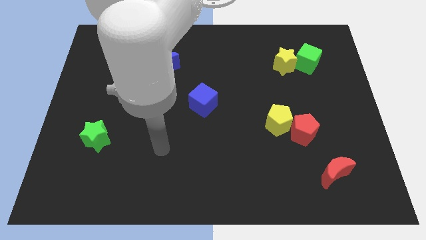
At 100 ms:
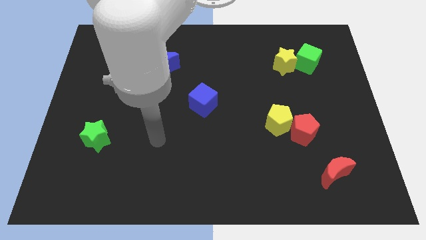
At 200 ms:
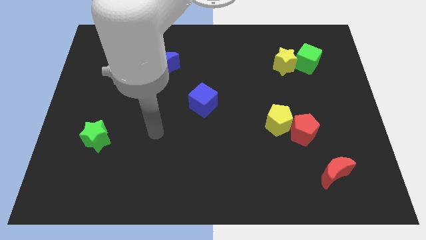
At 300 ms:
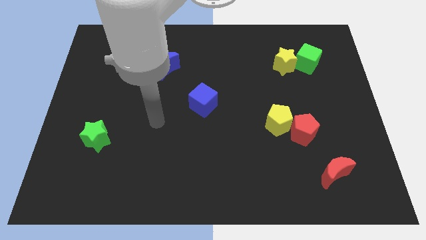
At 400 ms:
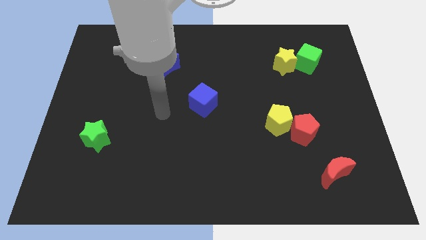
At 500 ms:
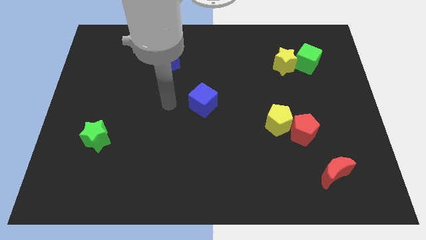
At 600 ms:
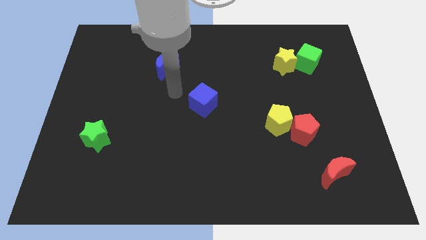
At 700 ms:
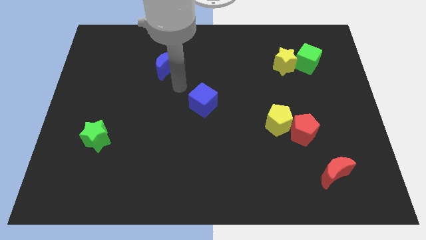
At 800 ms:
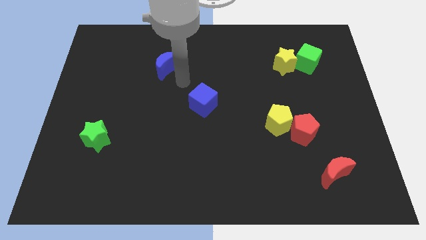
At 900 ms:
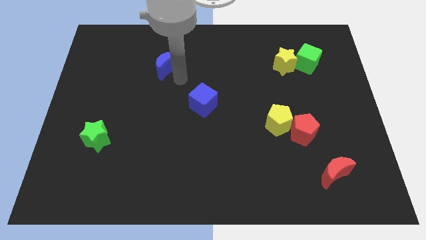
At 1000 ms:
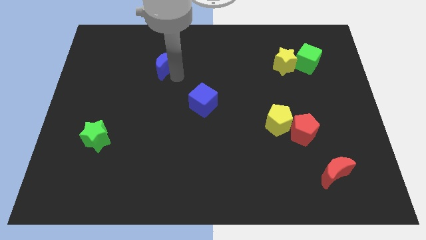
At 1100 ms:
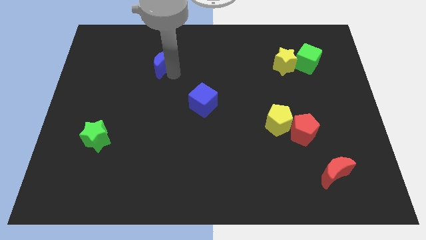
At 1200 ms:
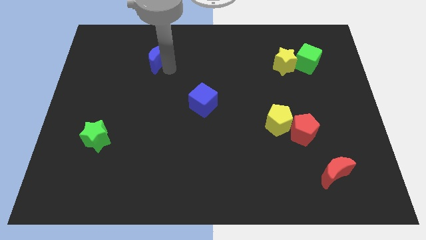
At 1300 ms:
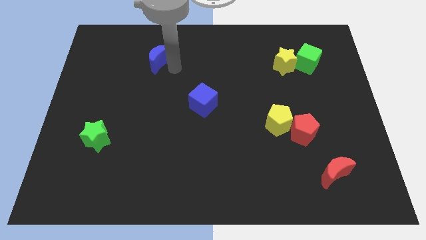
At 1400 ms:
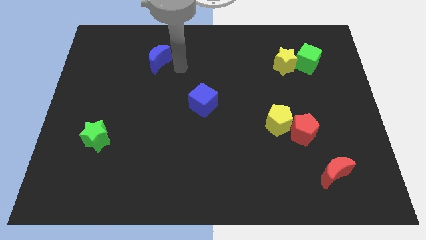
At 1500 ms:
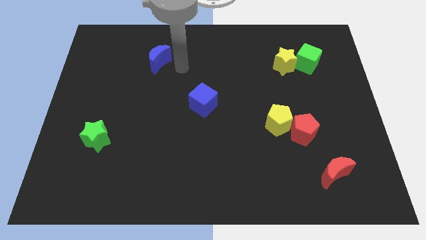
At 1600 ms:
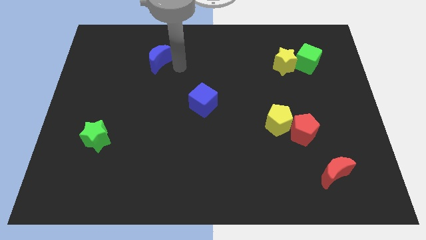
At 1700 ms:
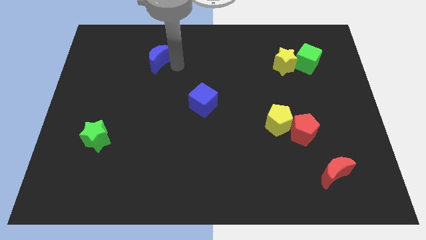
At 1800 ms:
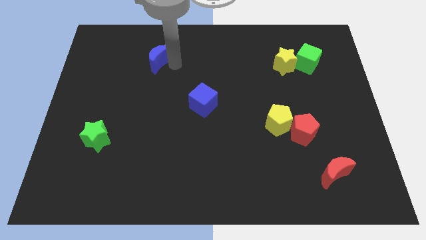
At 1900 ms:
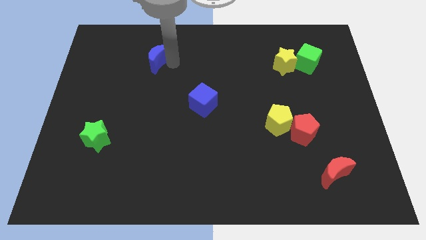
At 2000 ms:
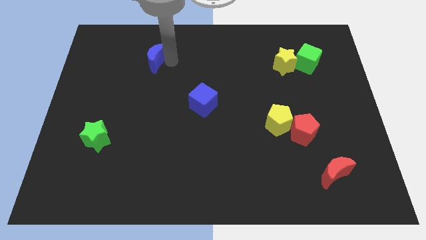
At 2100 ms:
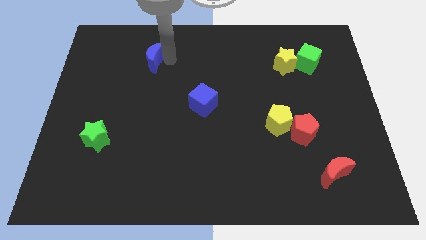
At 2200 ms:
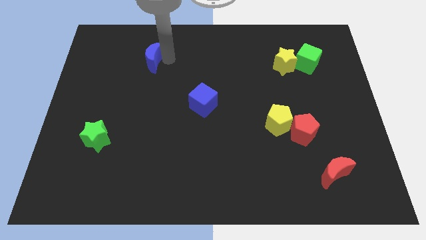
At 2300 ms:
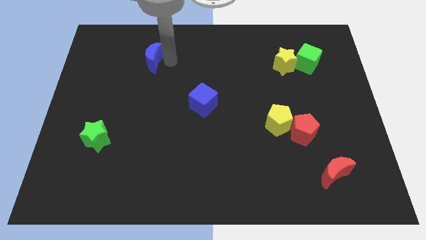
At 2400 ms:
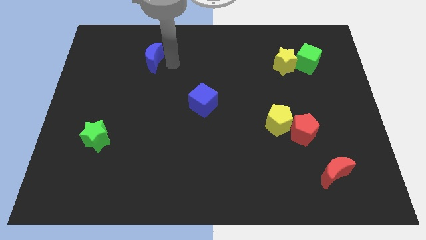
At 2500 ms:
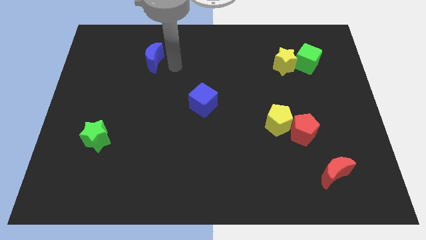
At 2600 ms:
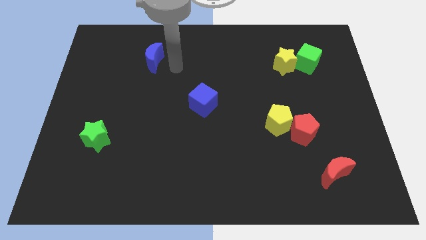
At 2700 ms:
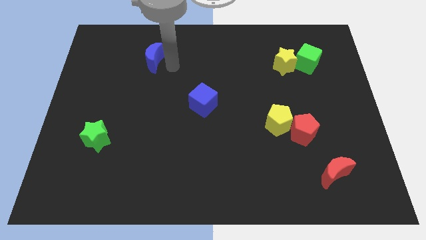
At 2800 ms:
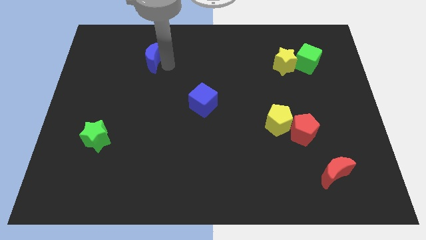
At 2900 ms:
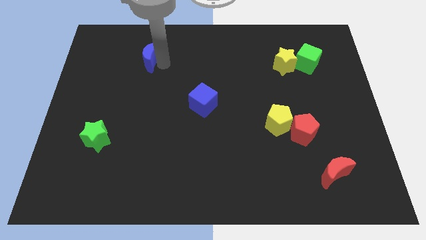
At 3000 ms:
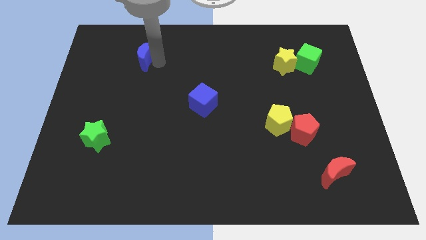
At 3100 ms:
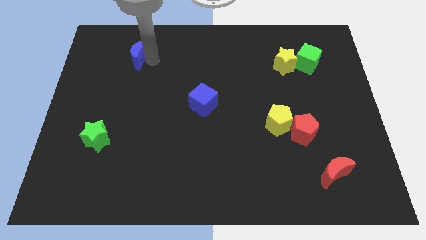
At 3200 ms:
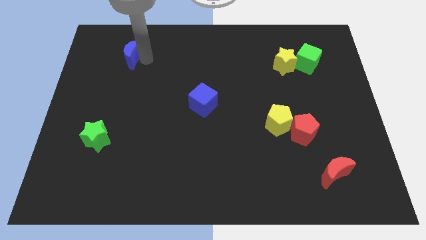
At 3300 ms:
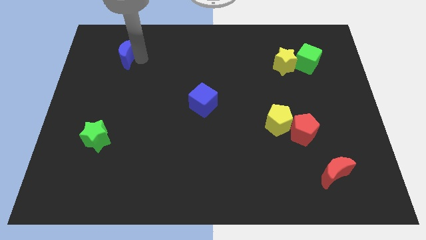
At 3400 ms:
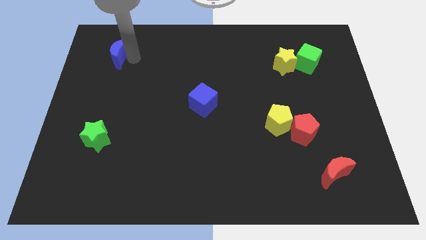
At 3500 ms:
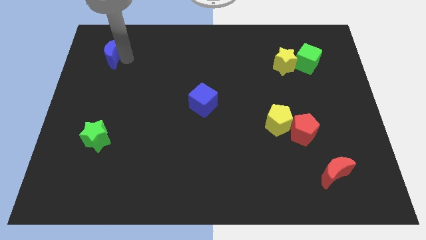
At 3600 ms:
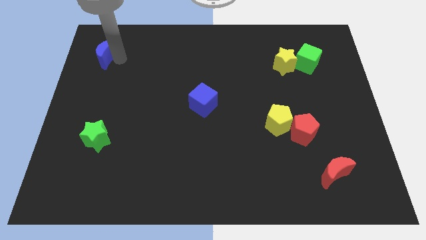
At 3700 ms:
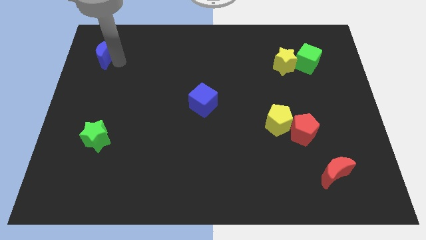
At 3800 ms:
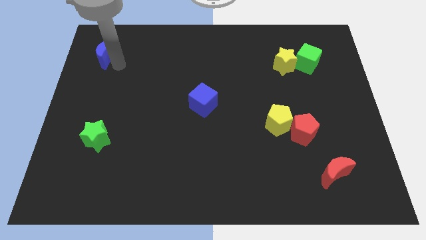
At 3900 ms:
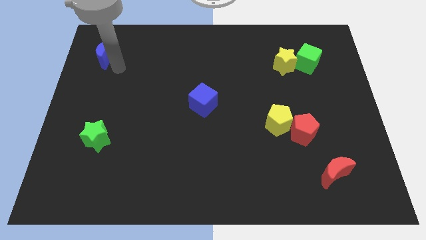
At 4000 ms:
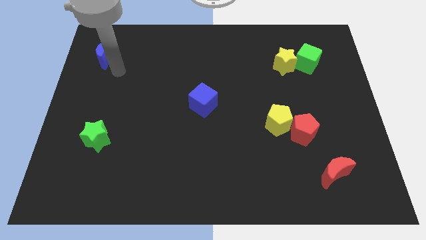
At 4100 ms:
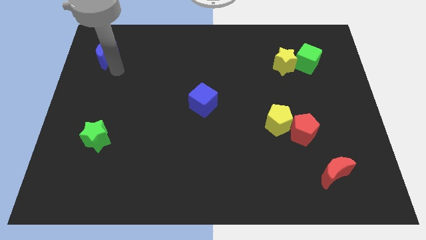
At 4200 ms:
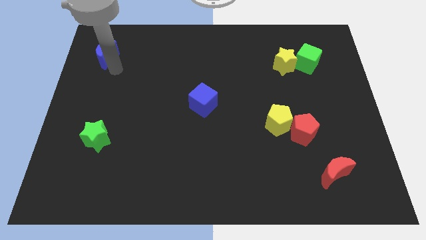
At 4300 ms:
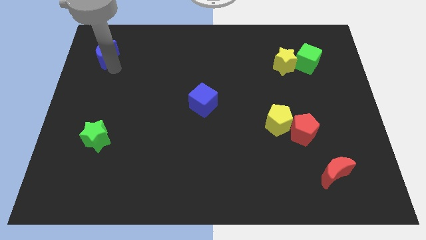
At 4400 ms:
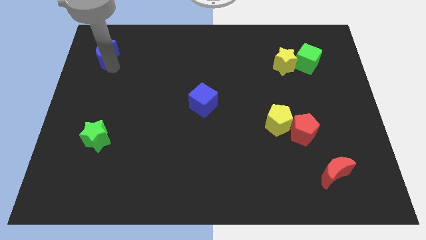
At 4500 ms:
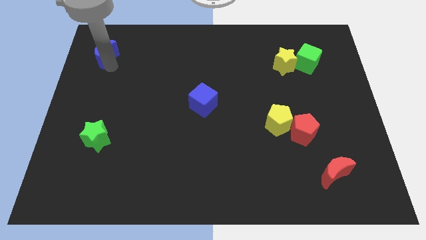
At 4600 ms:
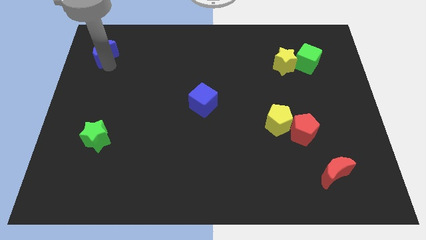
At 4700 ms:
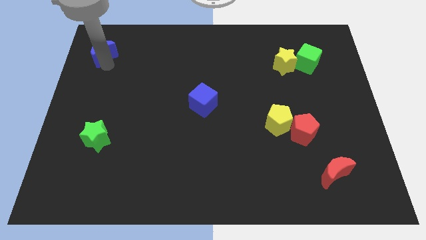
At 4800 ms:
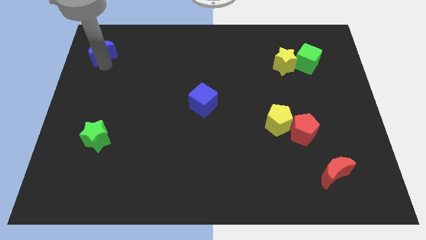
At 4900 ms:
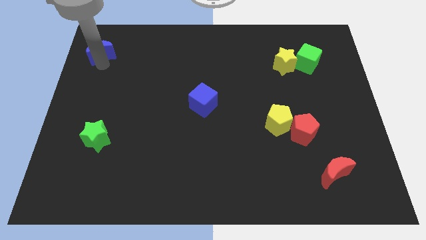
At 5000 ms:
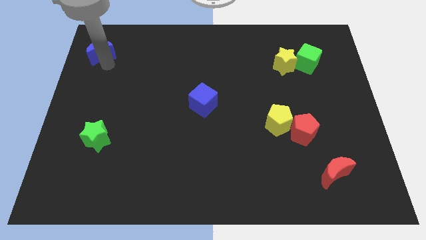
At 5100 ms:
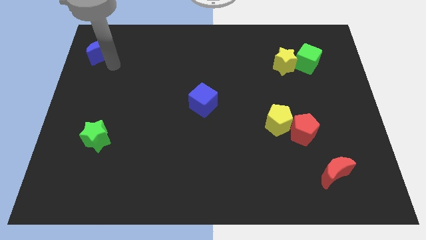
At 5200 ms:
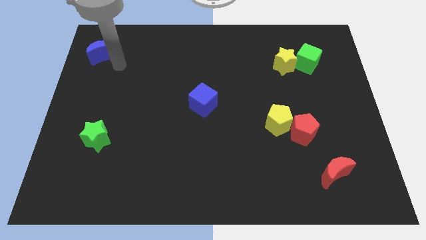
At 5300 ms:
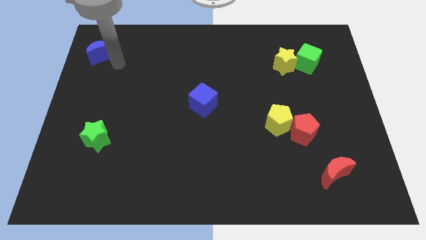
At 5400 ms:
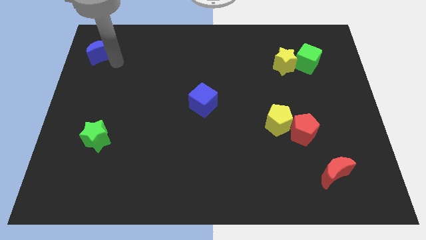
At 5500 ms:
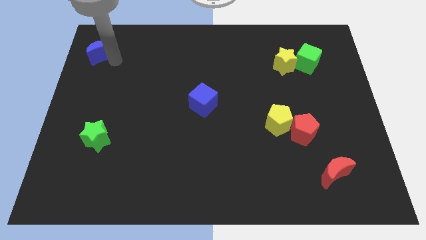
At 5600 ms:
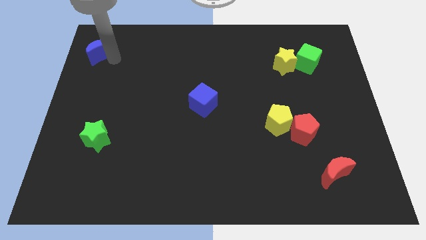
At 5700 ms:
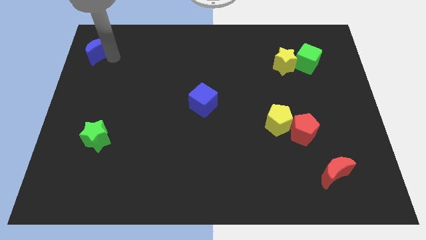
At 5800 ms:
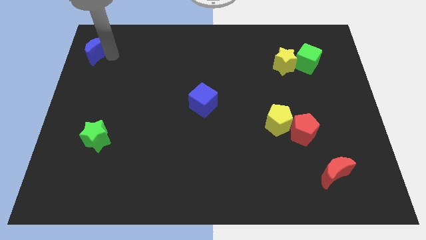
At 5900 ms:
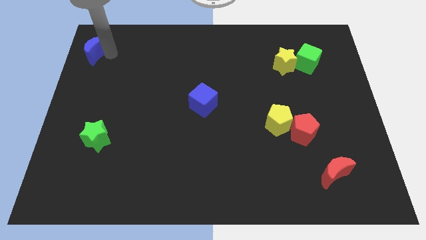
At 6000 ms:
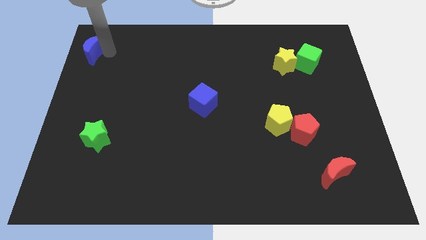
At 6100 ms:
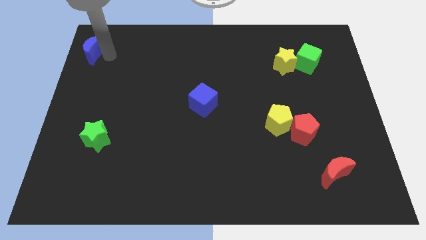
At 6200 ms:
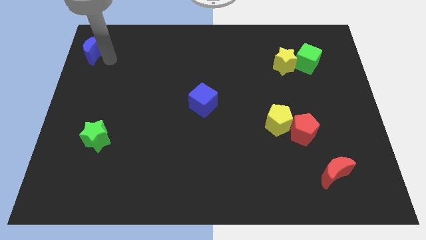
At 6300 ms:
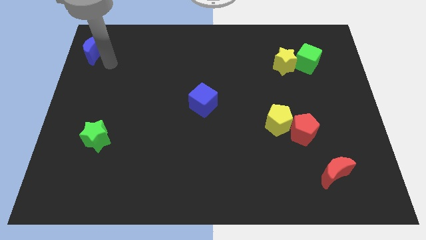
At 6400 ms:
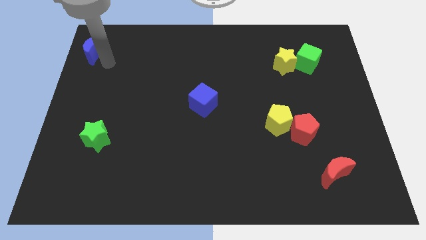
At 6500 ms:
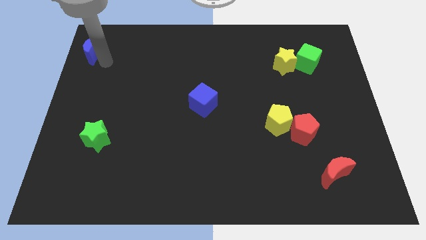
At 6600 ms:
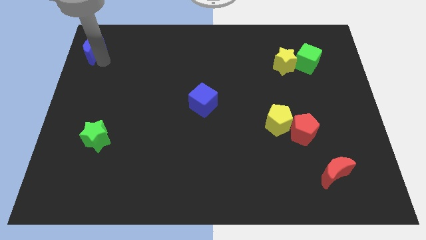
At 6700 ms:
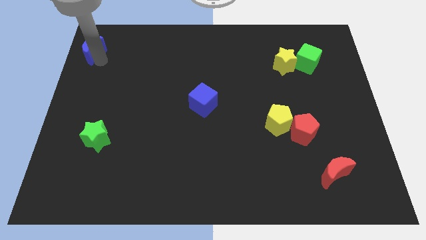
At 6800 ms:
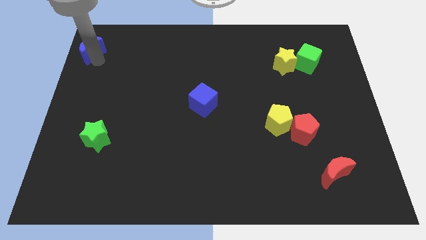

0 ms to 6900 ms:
put the blue moon to the top left corner

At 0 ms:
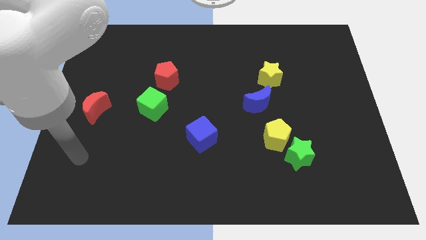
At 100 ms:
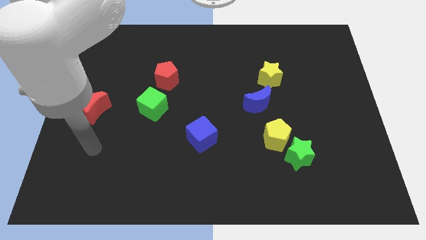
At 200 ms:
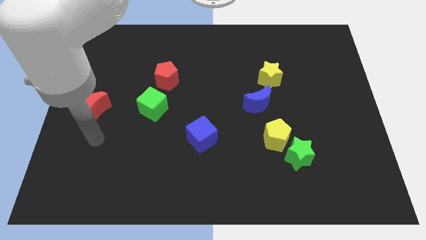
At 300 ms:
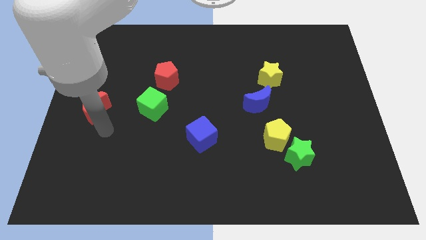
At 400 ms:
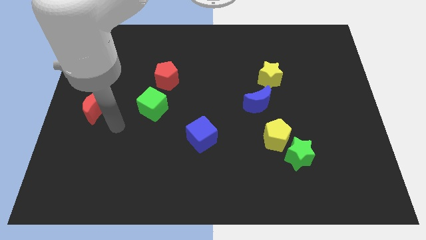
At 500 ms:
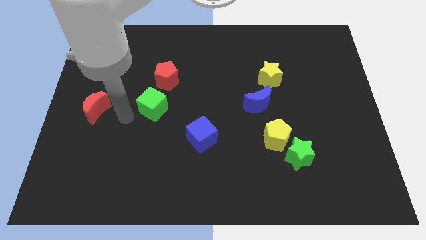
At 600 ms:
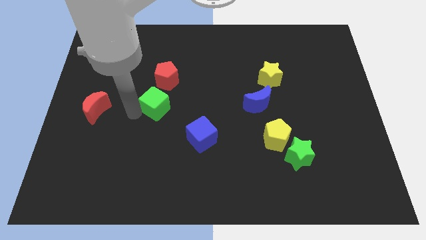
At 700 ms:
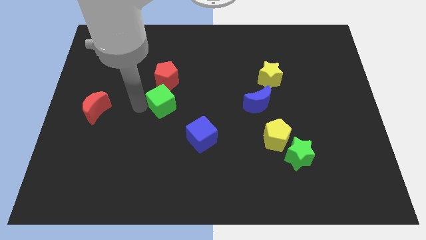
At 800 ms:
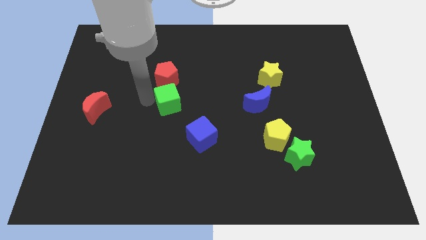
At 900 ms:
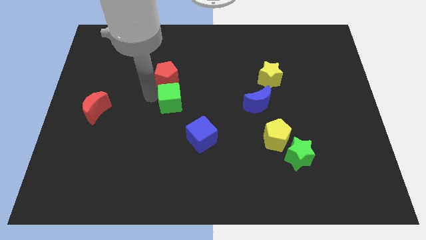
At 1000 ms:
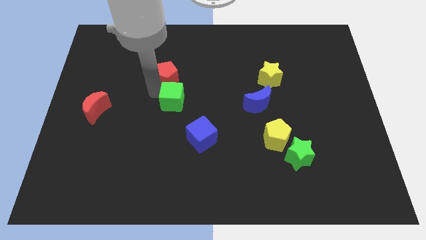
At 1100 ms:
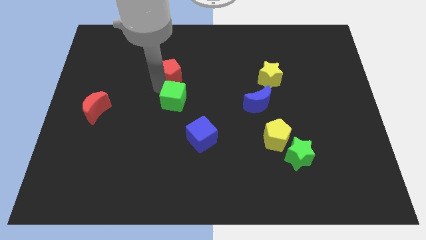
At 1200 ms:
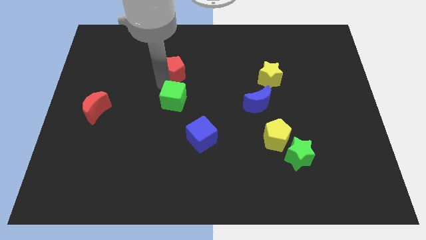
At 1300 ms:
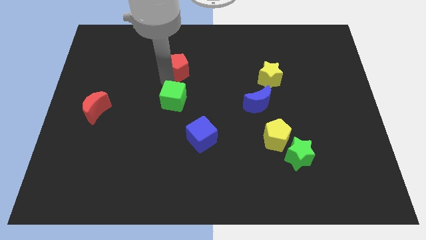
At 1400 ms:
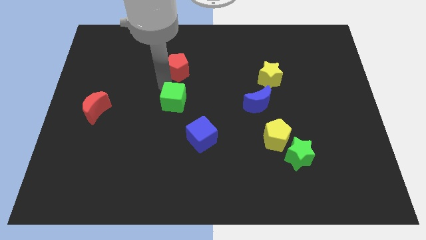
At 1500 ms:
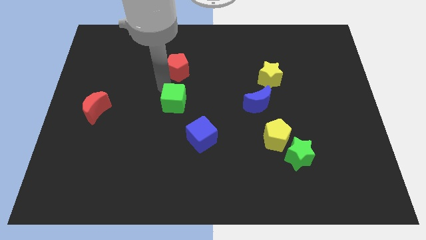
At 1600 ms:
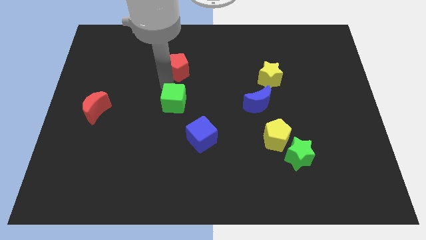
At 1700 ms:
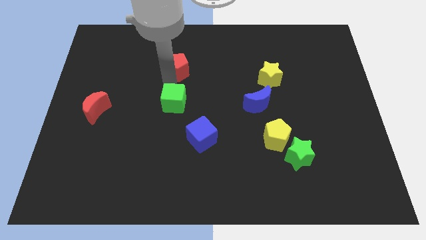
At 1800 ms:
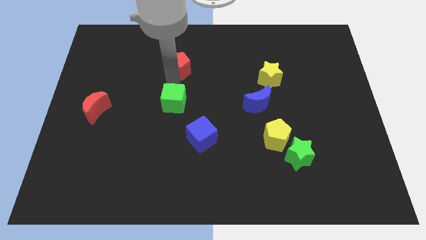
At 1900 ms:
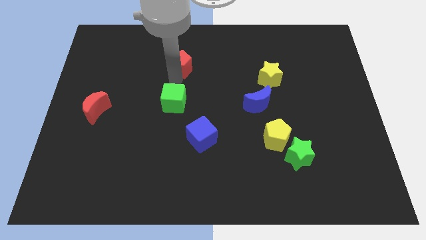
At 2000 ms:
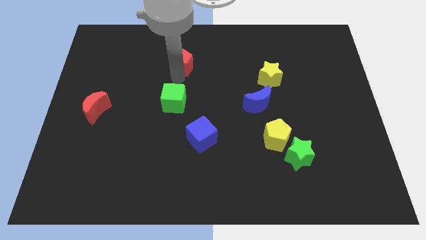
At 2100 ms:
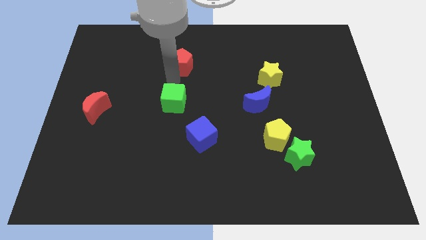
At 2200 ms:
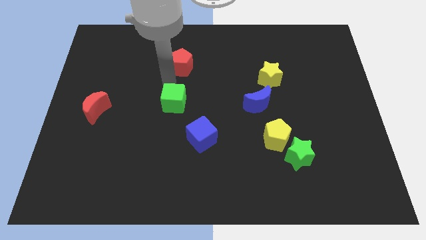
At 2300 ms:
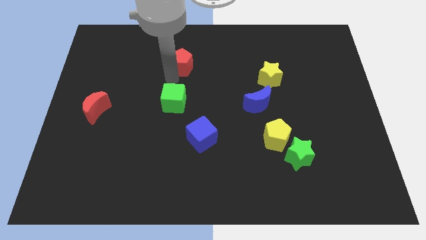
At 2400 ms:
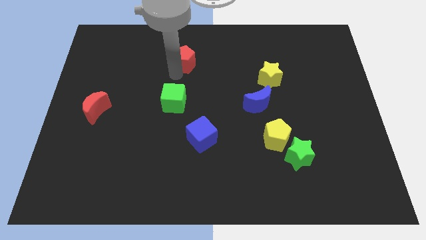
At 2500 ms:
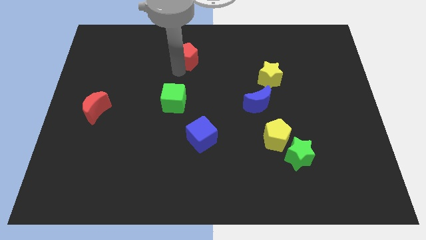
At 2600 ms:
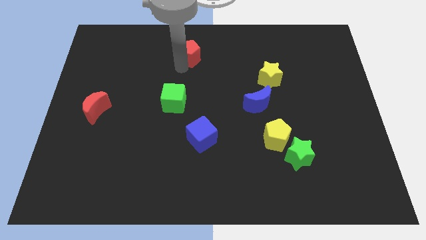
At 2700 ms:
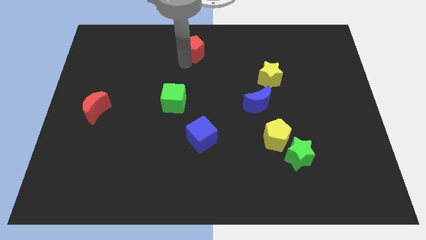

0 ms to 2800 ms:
put the red pentagon to the towards your base
